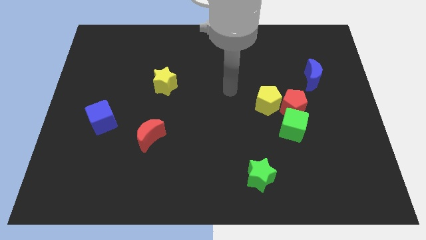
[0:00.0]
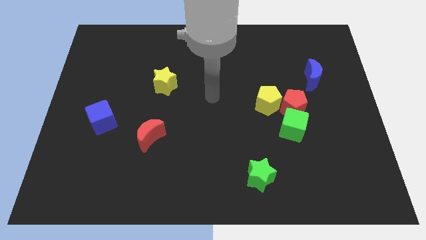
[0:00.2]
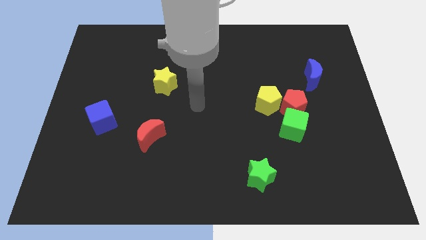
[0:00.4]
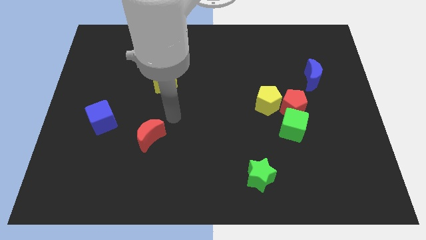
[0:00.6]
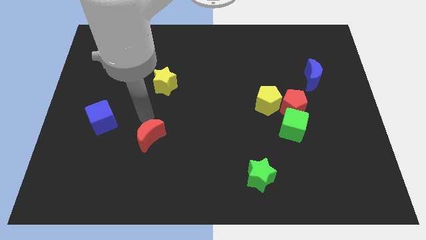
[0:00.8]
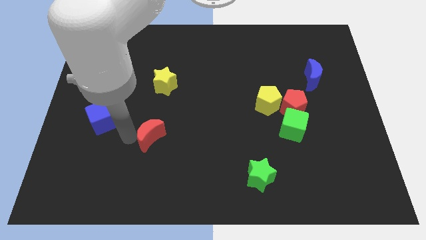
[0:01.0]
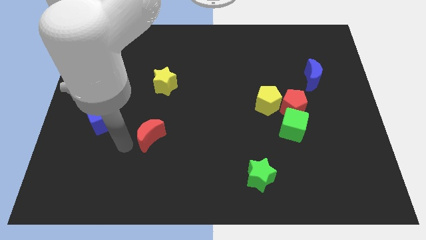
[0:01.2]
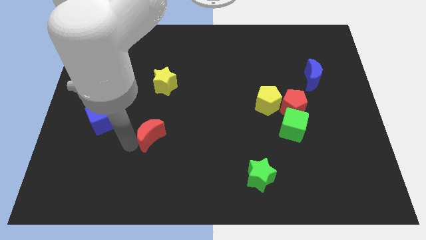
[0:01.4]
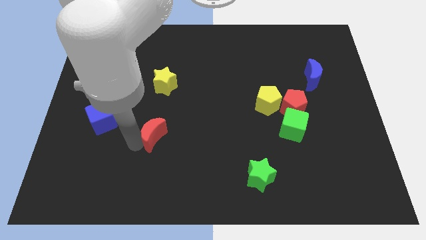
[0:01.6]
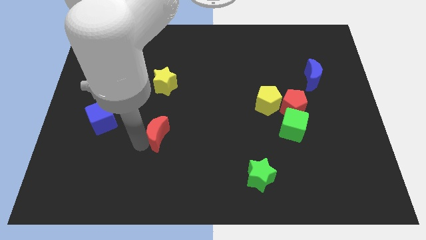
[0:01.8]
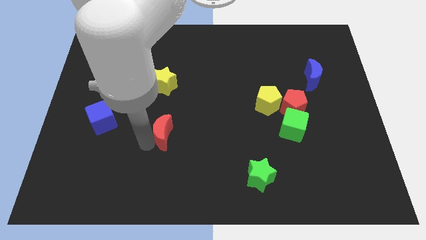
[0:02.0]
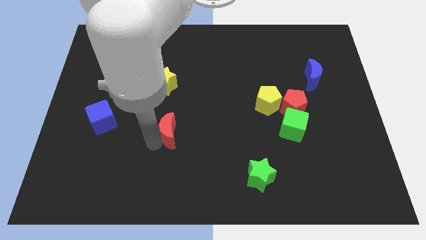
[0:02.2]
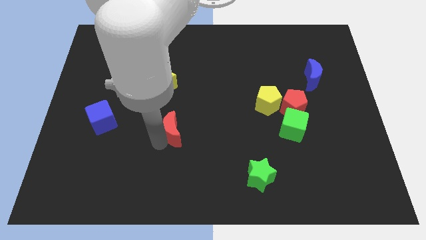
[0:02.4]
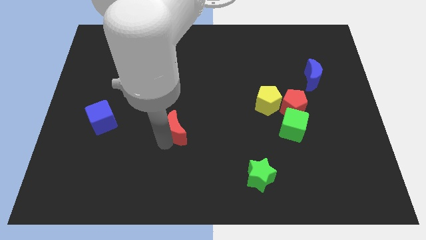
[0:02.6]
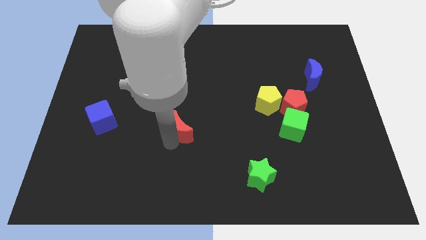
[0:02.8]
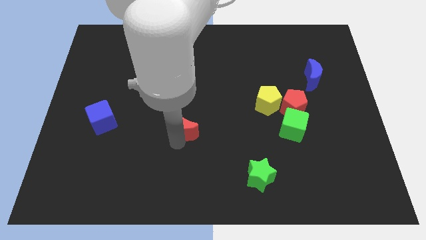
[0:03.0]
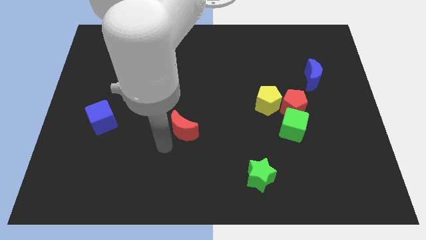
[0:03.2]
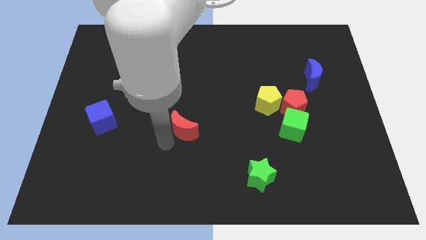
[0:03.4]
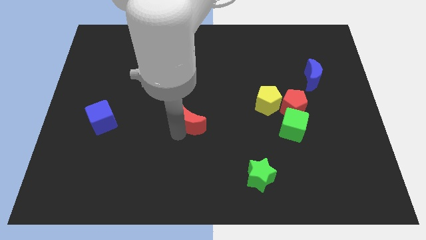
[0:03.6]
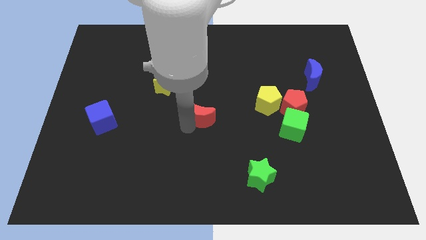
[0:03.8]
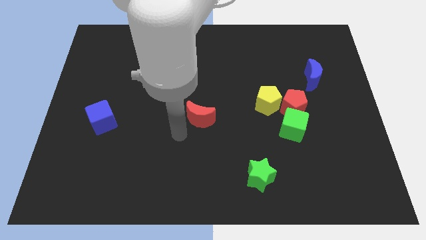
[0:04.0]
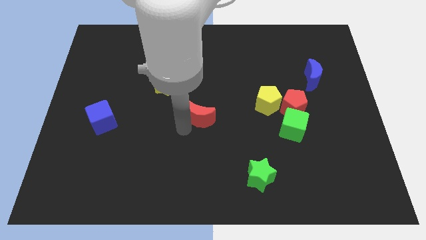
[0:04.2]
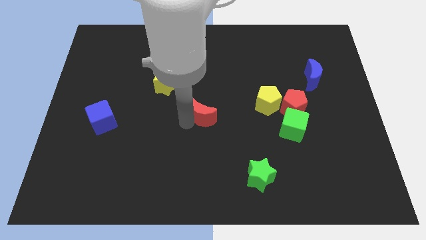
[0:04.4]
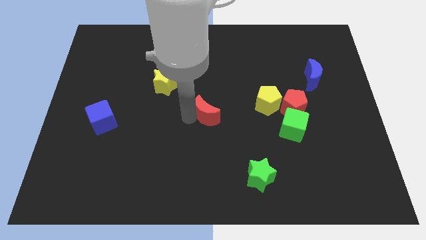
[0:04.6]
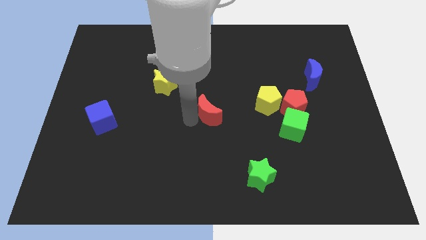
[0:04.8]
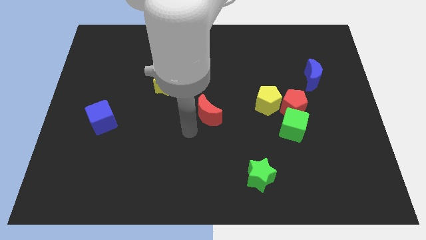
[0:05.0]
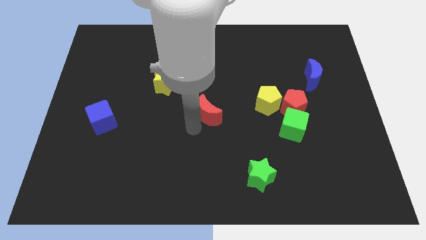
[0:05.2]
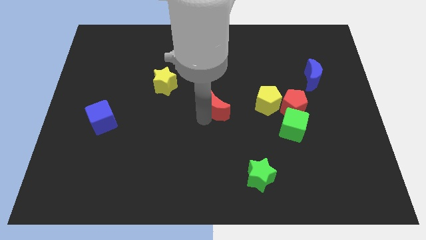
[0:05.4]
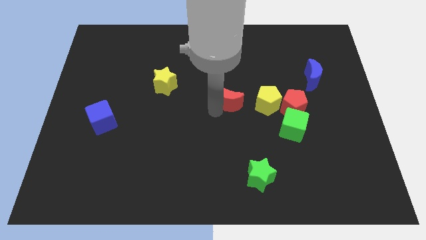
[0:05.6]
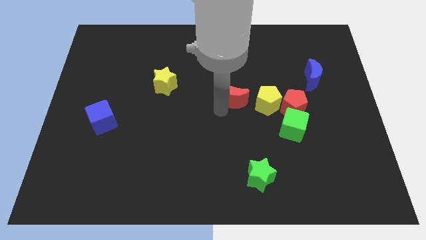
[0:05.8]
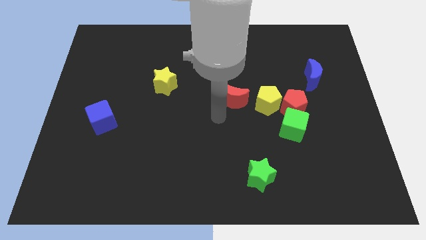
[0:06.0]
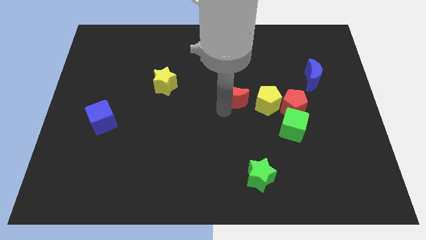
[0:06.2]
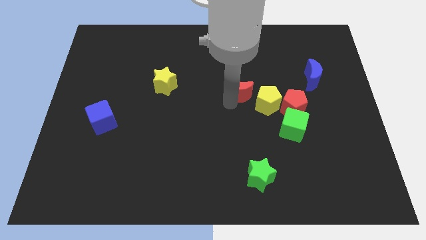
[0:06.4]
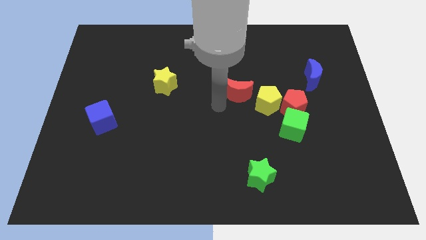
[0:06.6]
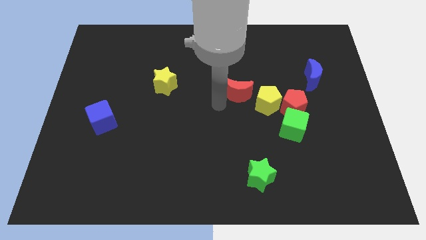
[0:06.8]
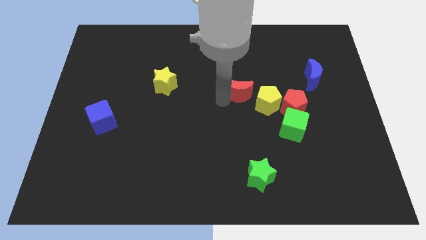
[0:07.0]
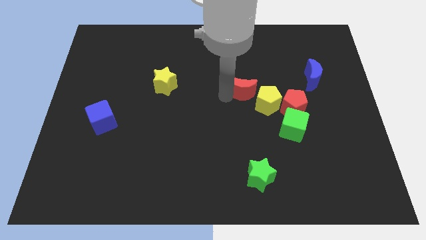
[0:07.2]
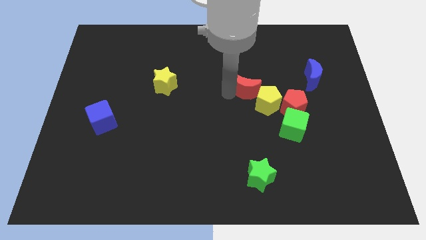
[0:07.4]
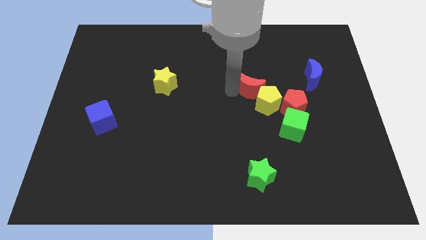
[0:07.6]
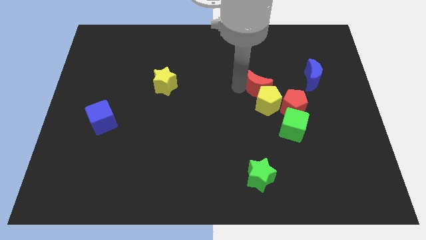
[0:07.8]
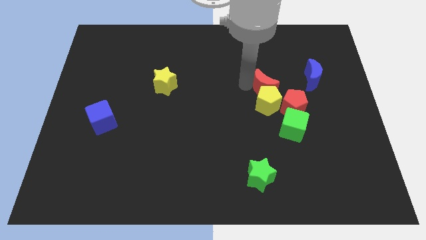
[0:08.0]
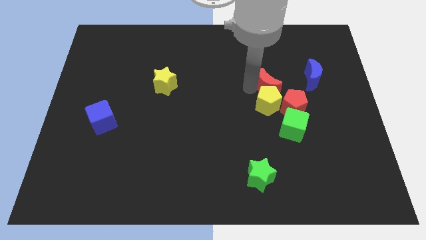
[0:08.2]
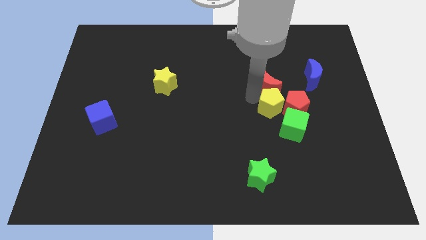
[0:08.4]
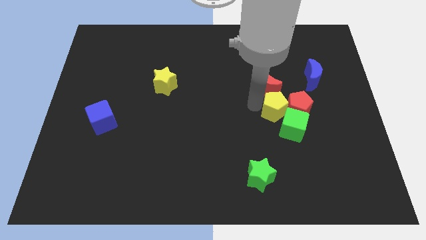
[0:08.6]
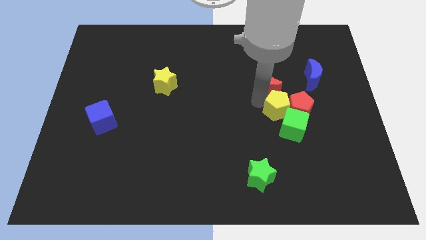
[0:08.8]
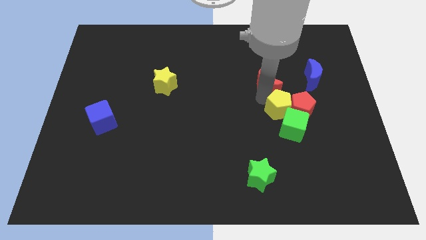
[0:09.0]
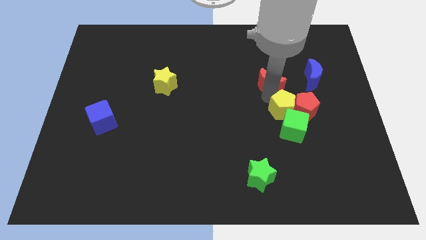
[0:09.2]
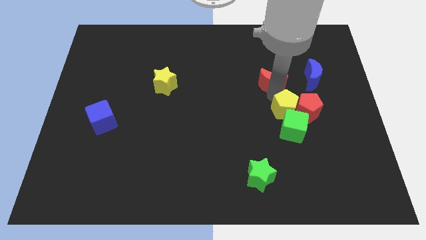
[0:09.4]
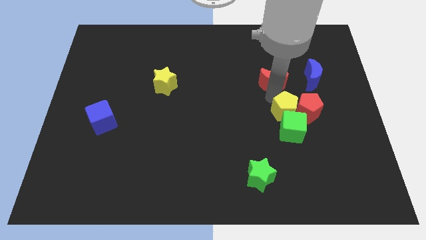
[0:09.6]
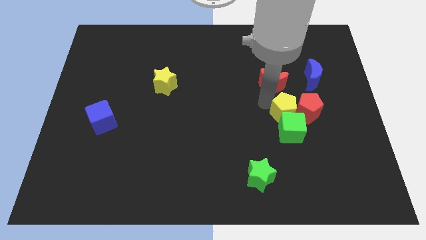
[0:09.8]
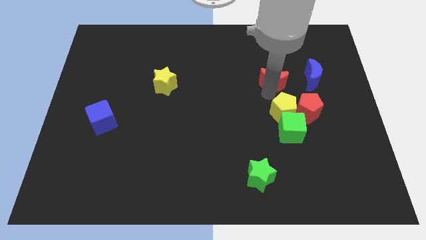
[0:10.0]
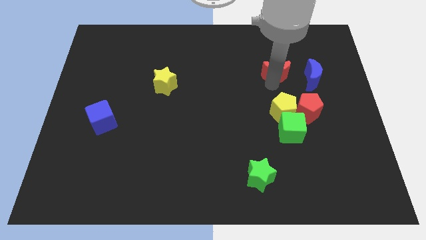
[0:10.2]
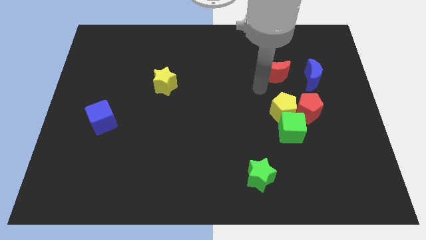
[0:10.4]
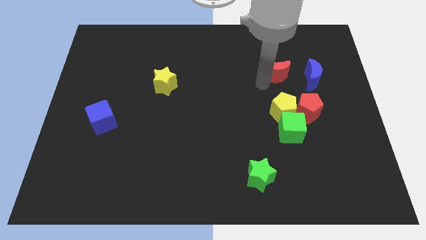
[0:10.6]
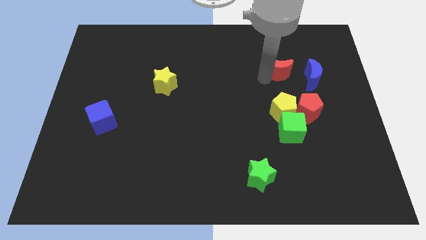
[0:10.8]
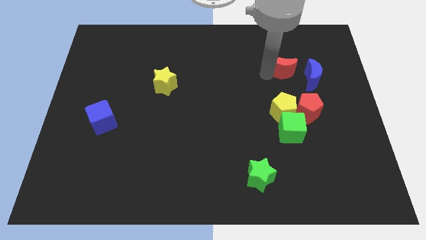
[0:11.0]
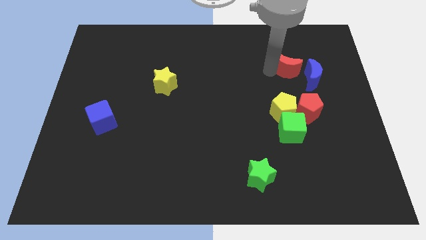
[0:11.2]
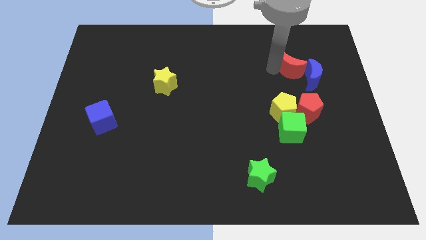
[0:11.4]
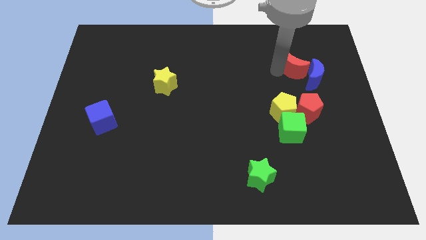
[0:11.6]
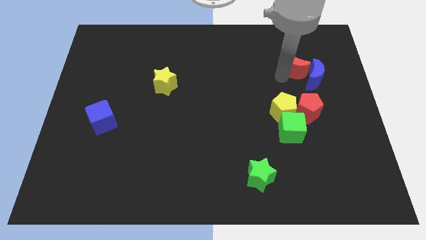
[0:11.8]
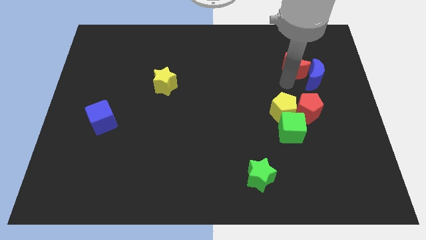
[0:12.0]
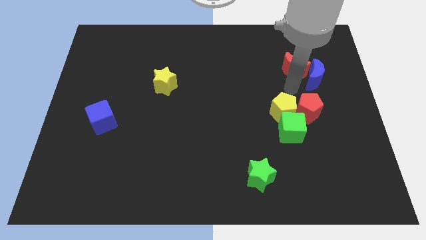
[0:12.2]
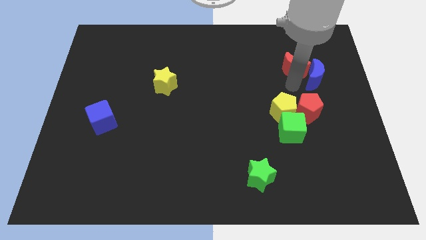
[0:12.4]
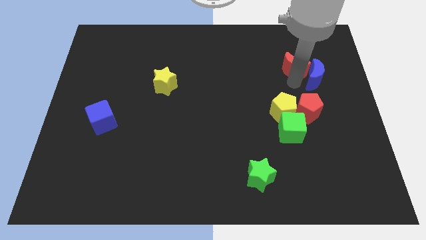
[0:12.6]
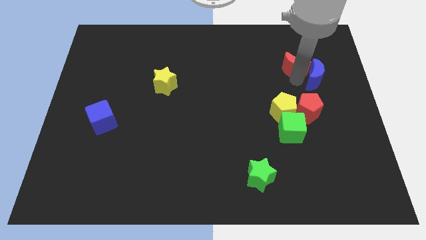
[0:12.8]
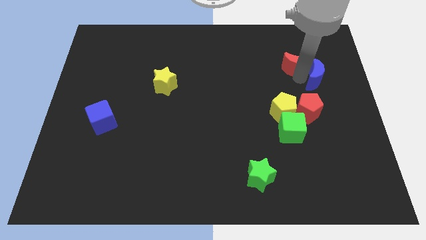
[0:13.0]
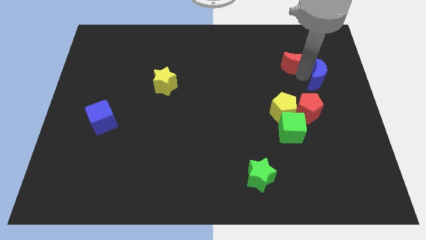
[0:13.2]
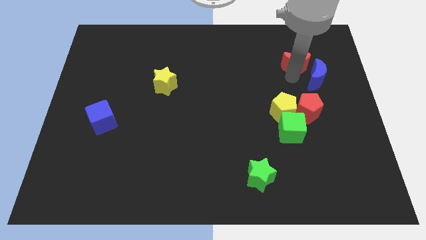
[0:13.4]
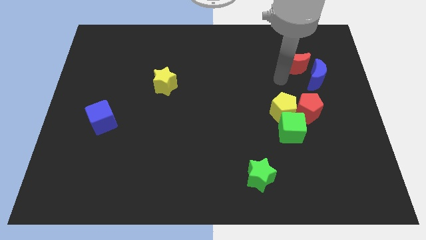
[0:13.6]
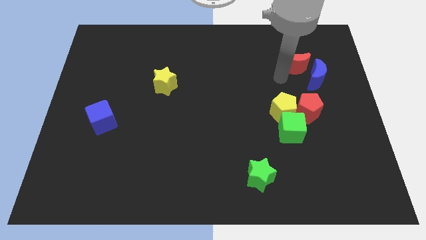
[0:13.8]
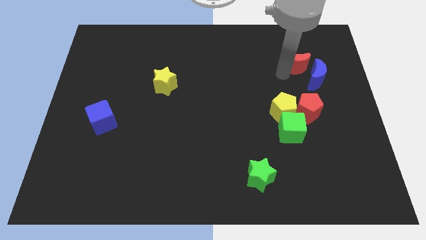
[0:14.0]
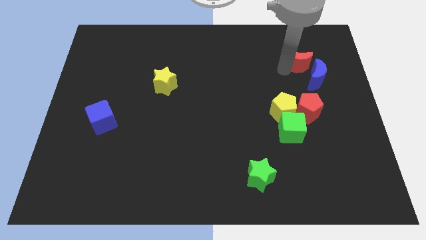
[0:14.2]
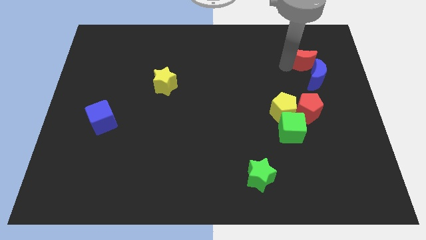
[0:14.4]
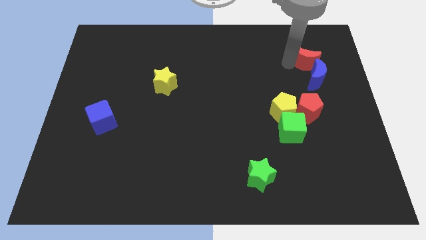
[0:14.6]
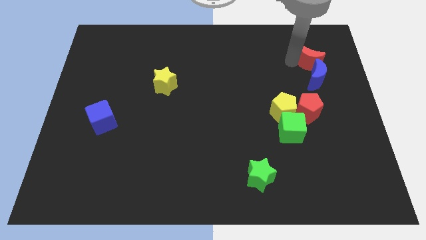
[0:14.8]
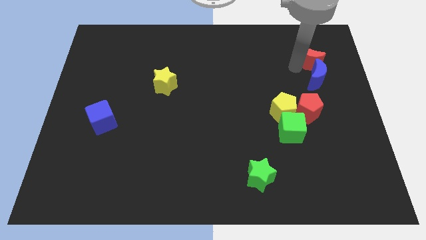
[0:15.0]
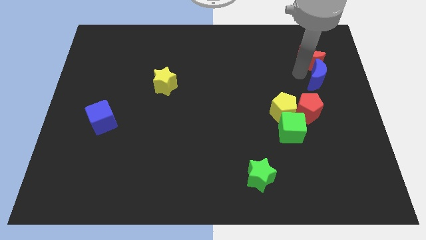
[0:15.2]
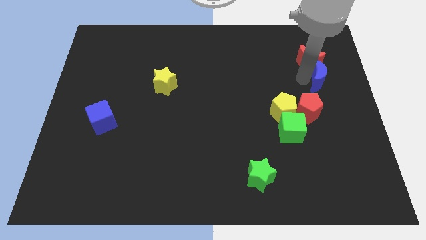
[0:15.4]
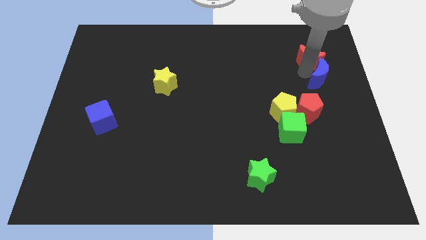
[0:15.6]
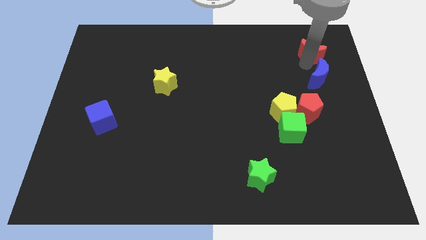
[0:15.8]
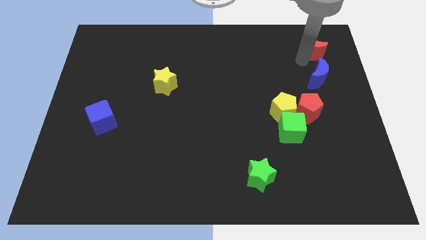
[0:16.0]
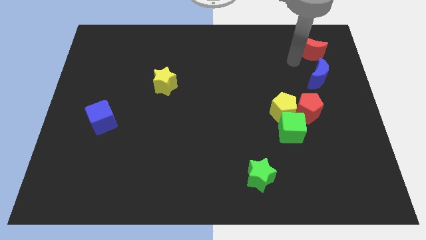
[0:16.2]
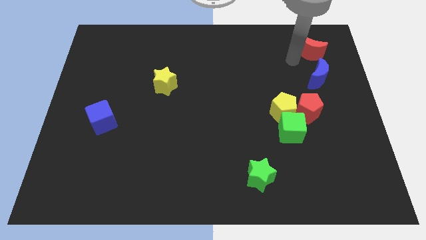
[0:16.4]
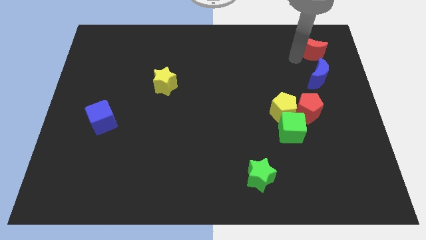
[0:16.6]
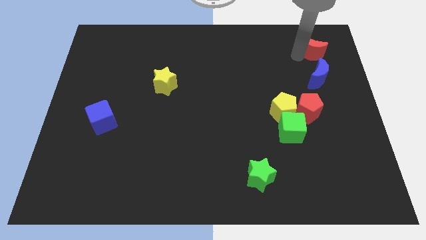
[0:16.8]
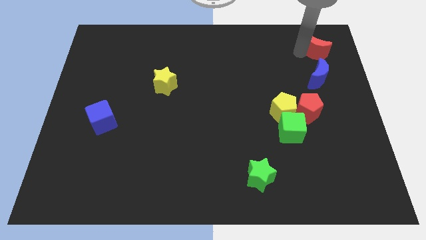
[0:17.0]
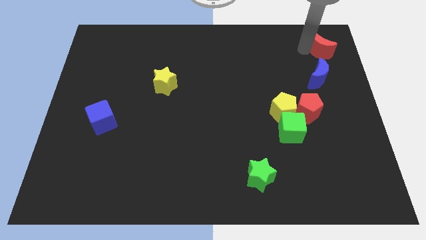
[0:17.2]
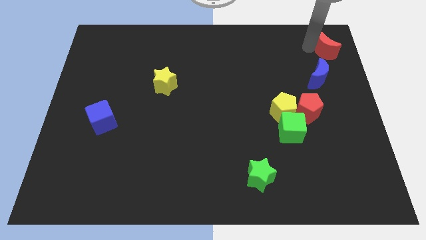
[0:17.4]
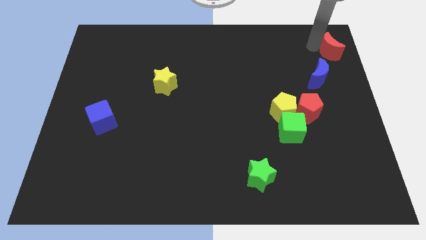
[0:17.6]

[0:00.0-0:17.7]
push the red moon to the top right of the board
